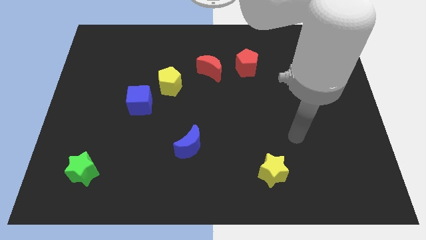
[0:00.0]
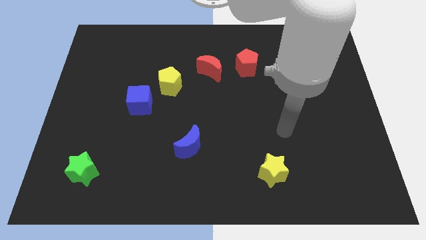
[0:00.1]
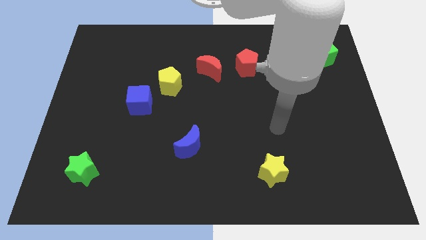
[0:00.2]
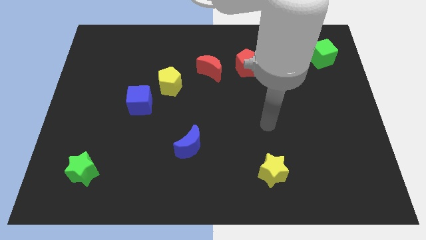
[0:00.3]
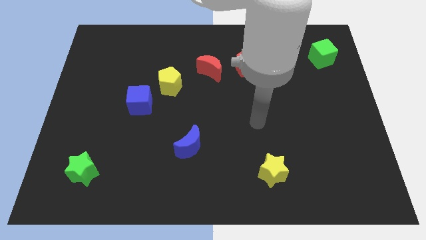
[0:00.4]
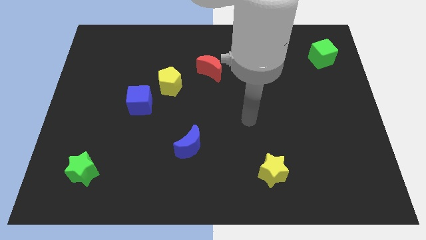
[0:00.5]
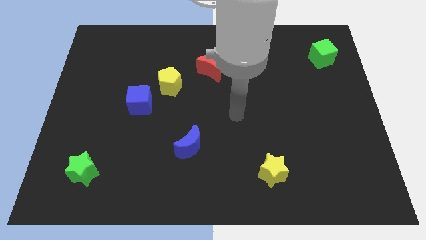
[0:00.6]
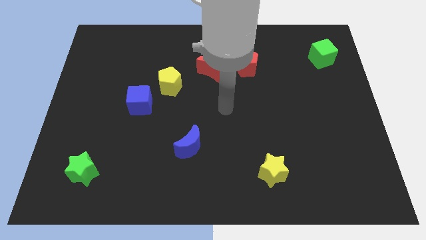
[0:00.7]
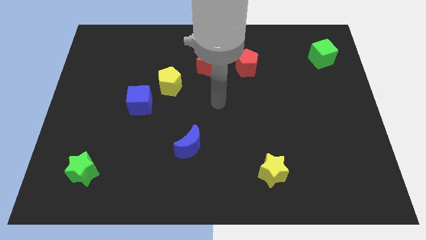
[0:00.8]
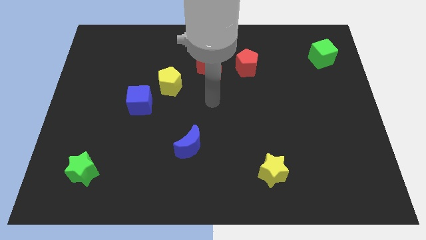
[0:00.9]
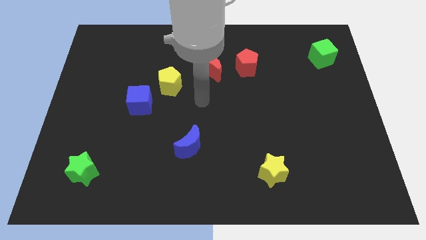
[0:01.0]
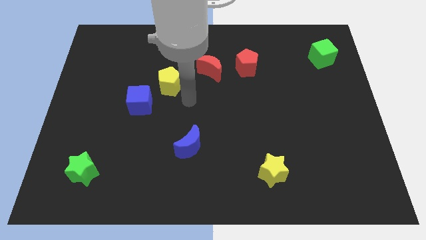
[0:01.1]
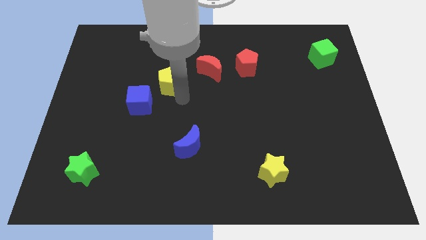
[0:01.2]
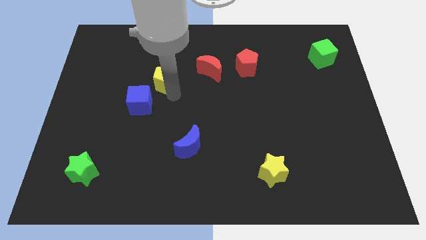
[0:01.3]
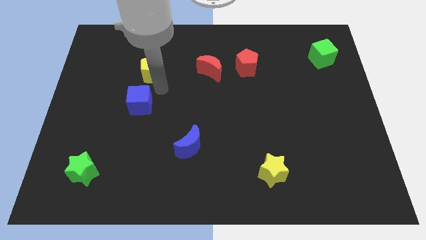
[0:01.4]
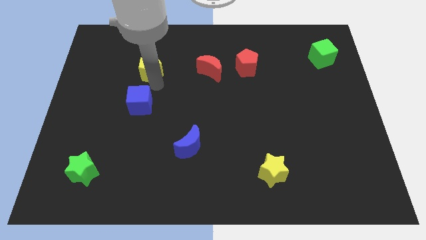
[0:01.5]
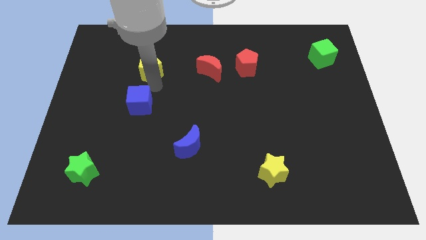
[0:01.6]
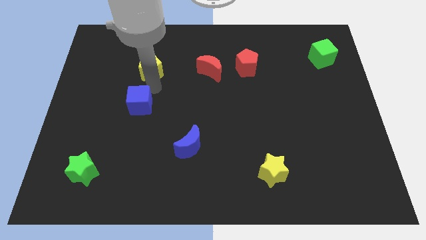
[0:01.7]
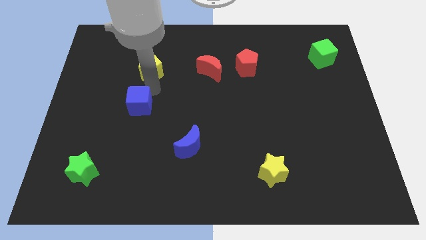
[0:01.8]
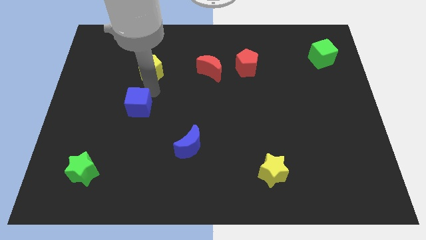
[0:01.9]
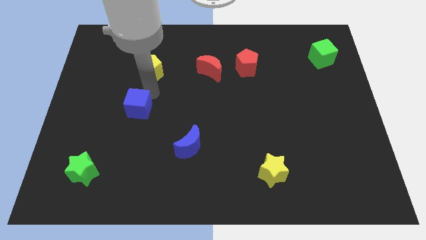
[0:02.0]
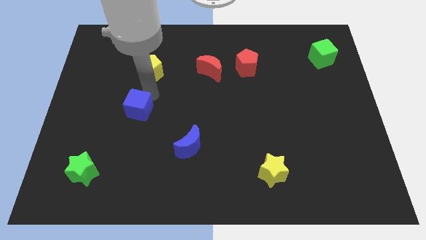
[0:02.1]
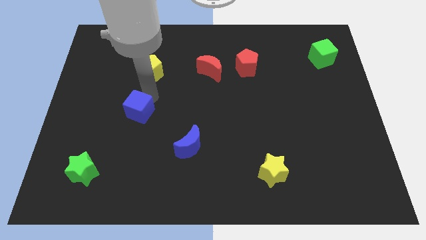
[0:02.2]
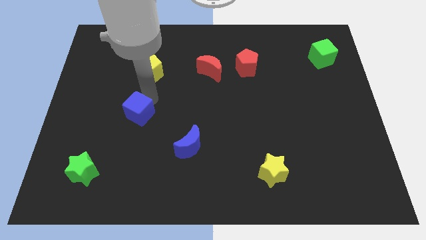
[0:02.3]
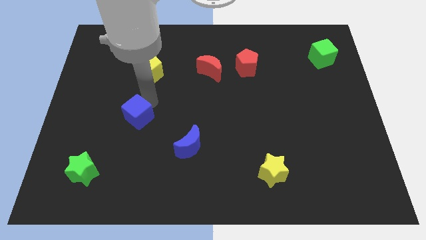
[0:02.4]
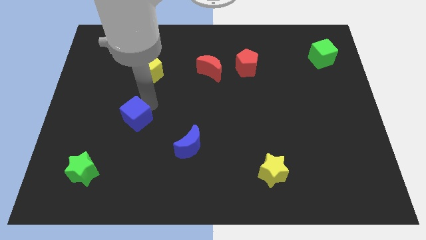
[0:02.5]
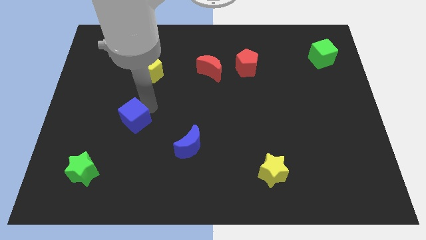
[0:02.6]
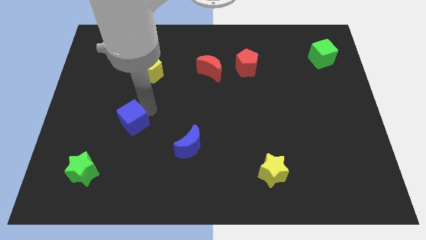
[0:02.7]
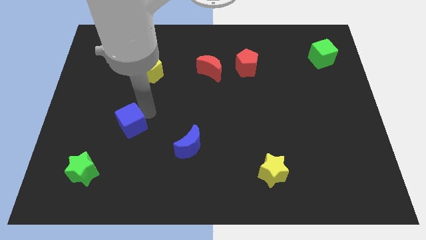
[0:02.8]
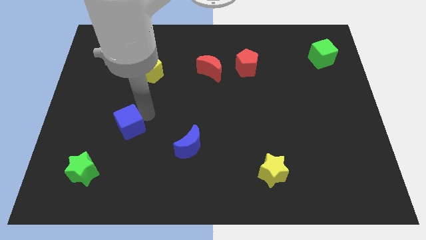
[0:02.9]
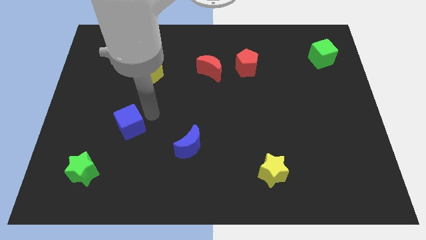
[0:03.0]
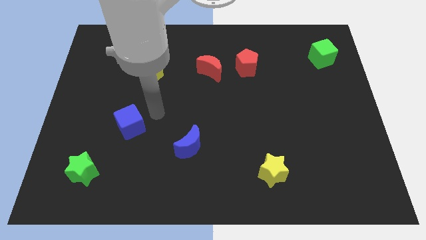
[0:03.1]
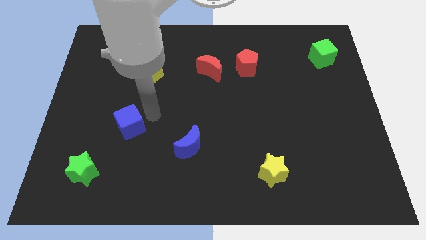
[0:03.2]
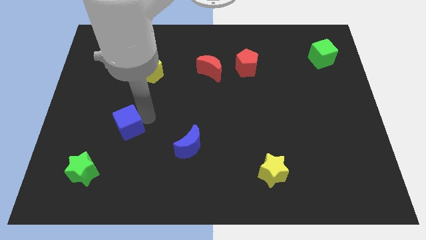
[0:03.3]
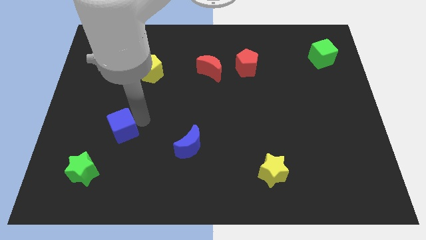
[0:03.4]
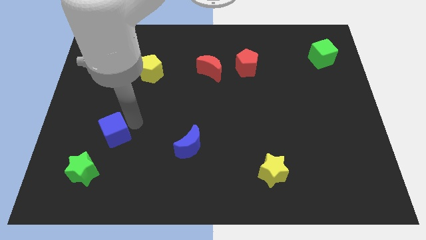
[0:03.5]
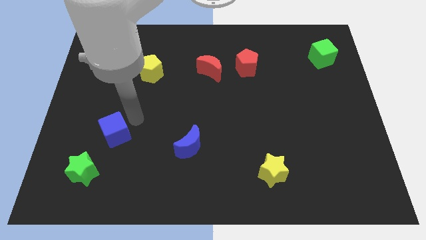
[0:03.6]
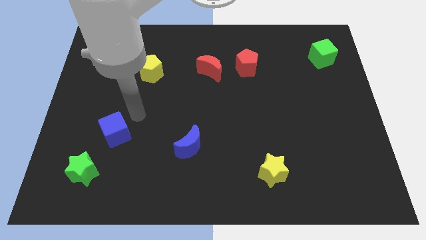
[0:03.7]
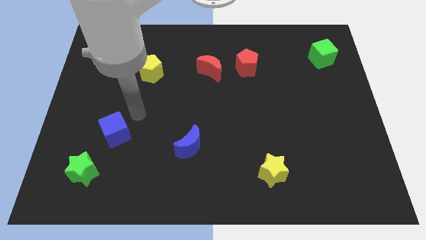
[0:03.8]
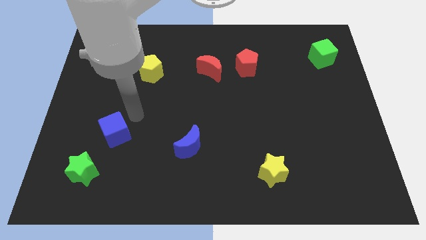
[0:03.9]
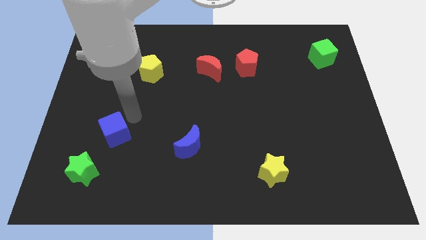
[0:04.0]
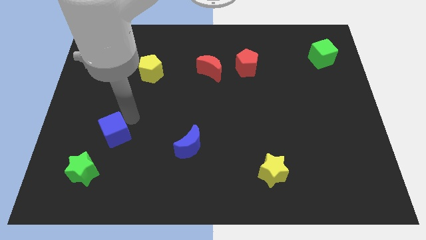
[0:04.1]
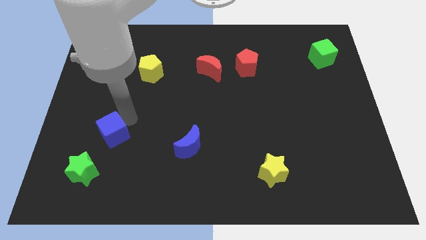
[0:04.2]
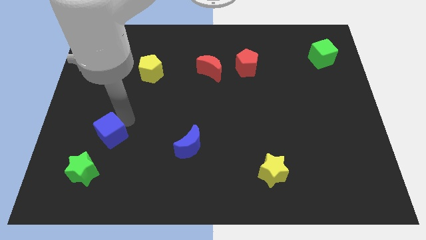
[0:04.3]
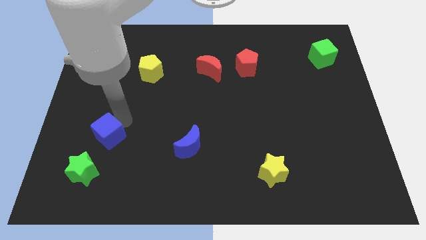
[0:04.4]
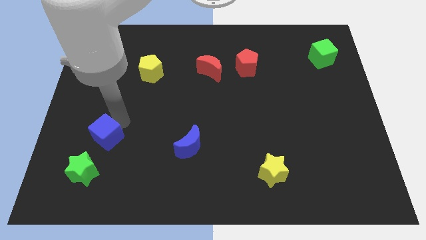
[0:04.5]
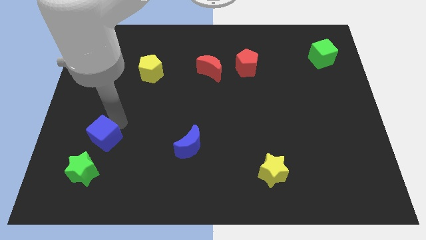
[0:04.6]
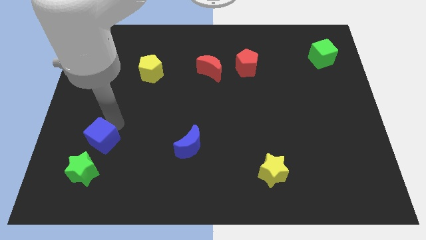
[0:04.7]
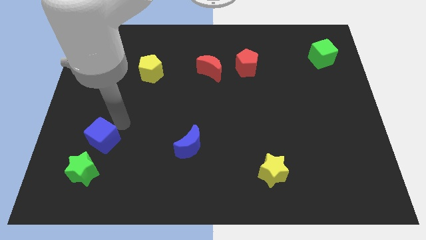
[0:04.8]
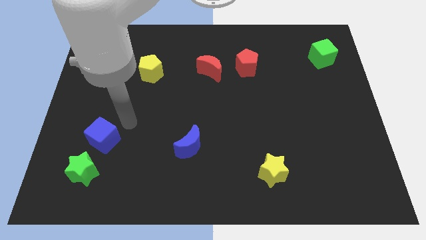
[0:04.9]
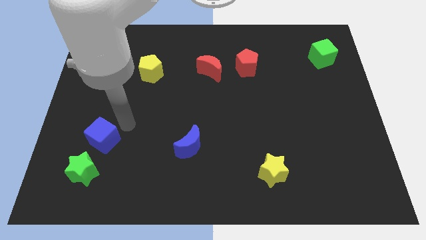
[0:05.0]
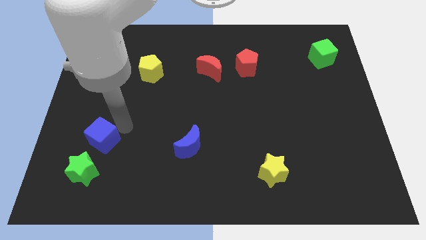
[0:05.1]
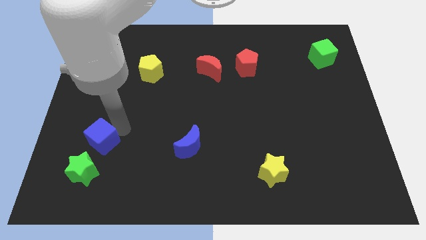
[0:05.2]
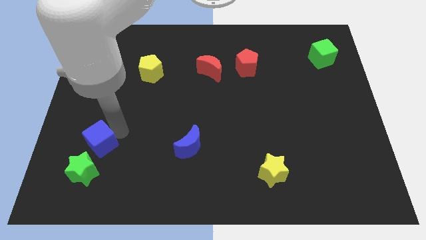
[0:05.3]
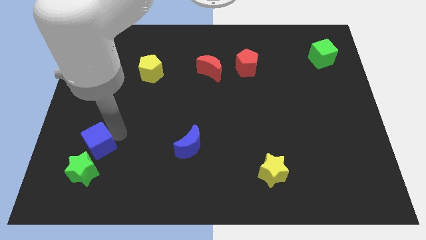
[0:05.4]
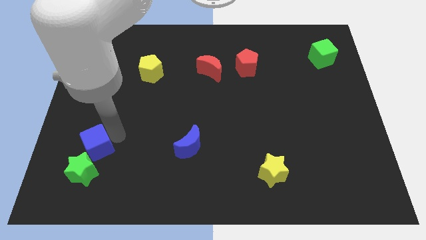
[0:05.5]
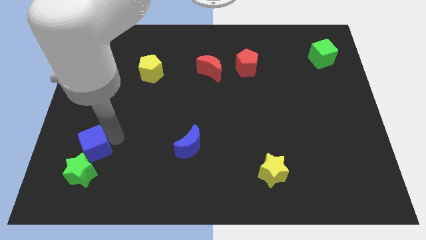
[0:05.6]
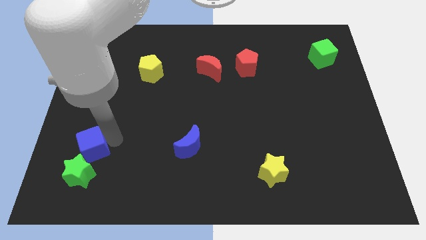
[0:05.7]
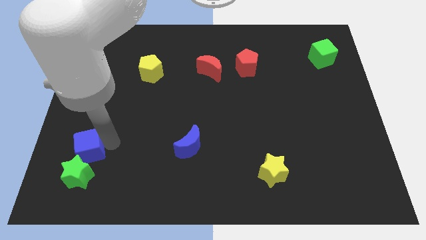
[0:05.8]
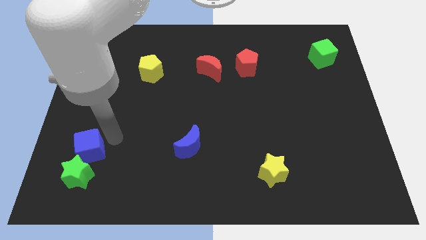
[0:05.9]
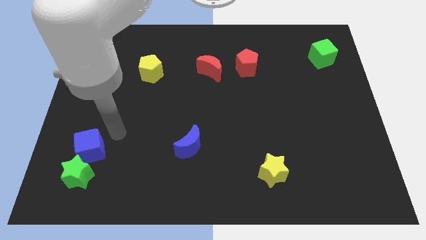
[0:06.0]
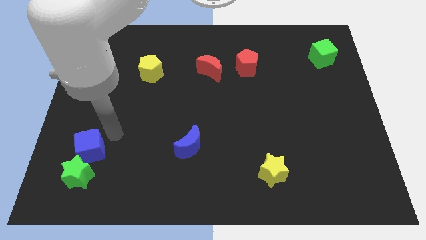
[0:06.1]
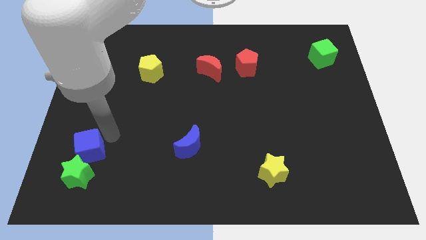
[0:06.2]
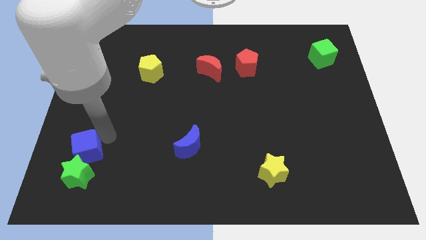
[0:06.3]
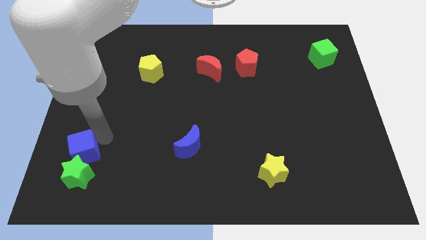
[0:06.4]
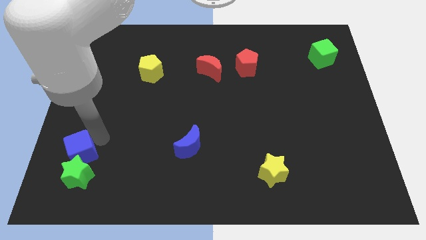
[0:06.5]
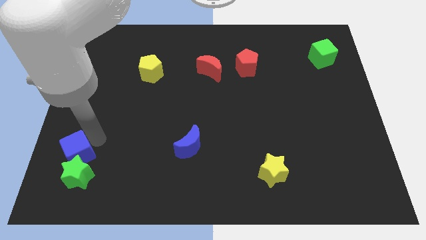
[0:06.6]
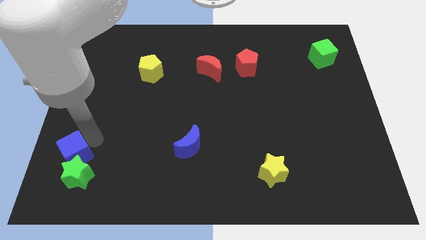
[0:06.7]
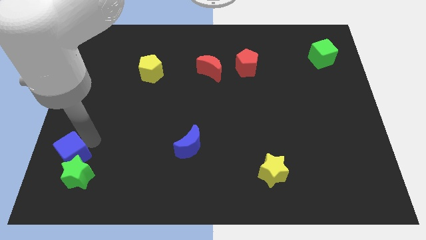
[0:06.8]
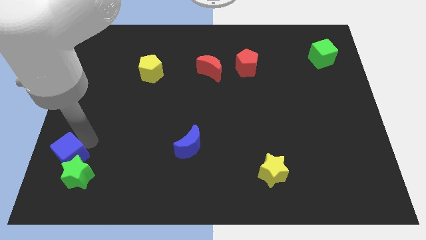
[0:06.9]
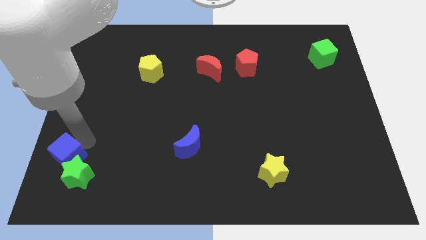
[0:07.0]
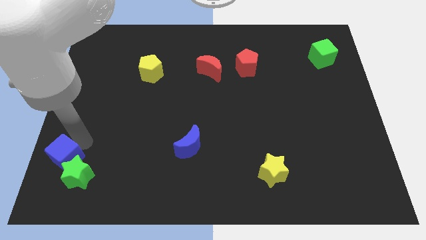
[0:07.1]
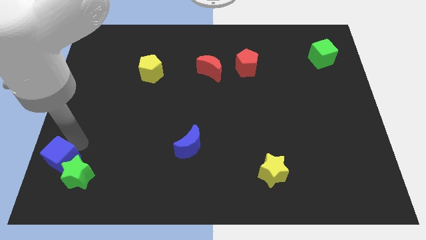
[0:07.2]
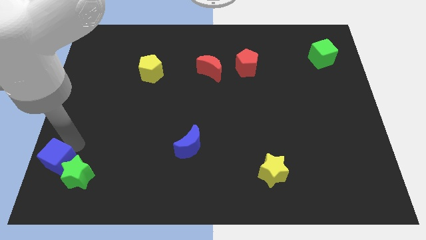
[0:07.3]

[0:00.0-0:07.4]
push the blue cube to the bottom left corner

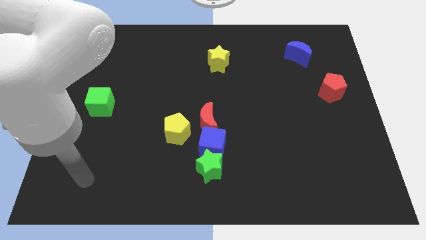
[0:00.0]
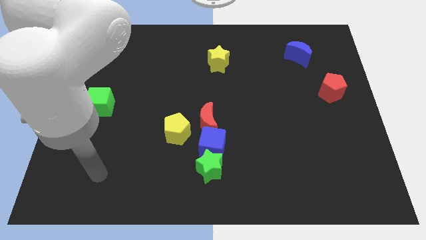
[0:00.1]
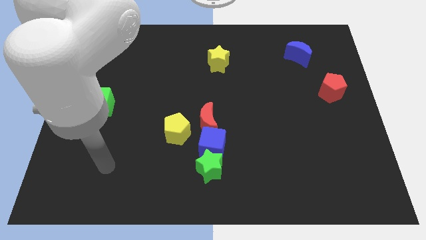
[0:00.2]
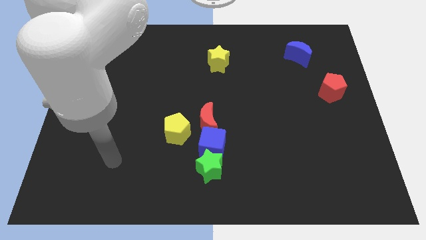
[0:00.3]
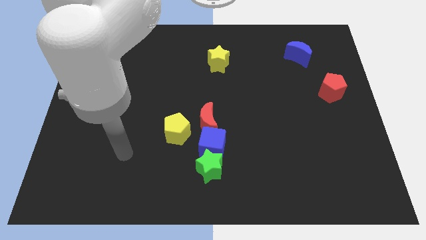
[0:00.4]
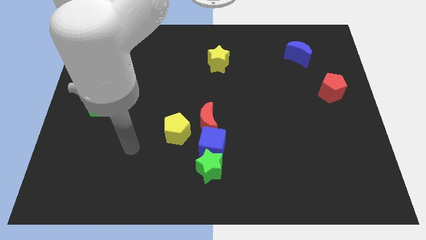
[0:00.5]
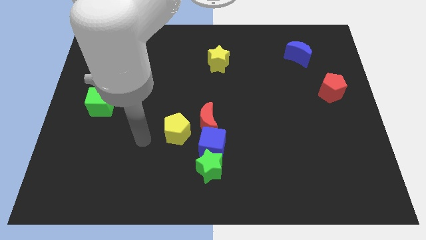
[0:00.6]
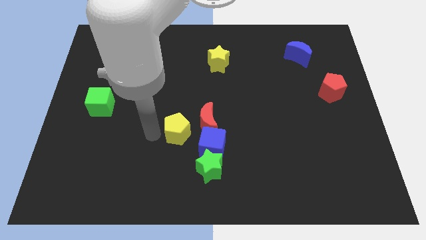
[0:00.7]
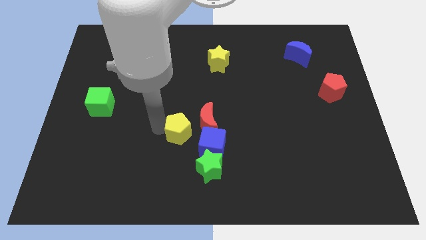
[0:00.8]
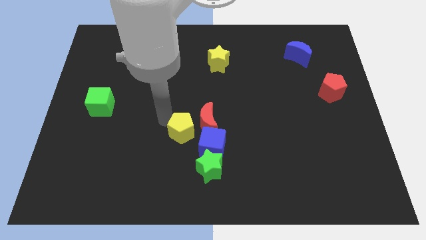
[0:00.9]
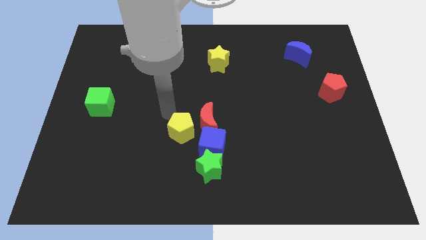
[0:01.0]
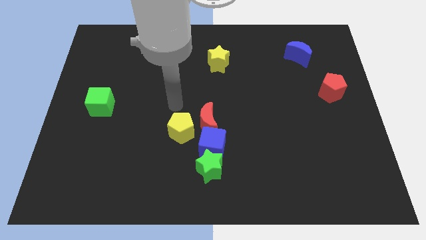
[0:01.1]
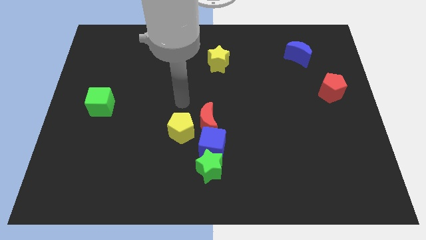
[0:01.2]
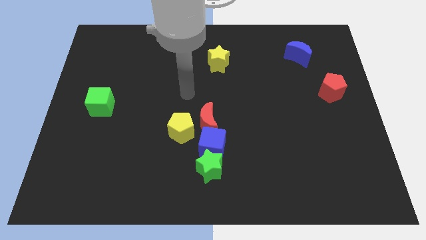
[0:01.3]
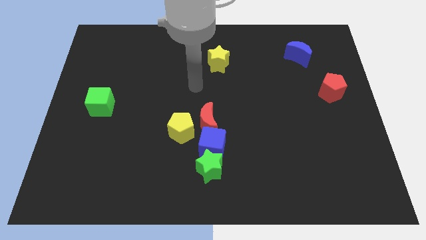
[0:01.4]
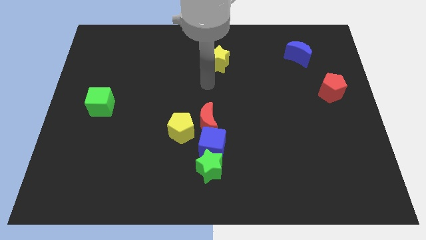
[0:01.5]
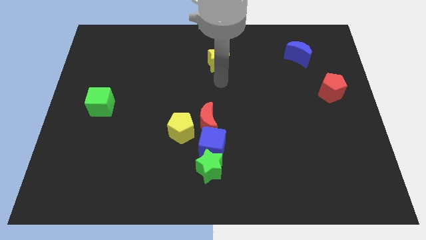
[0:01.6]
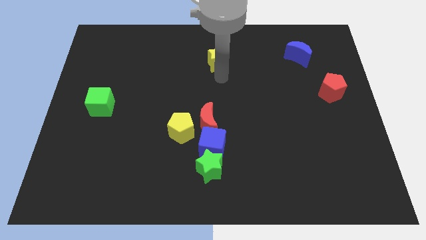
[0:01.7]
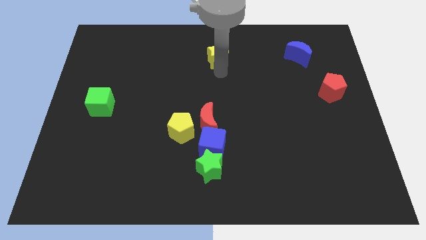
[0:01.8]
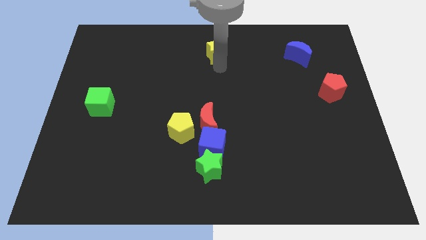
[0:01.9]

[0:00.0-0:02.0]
put the yellow star to the top
